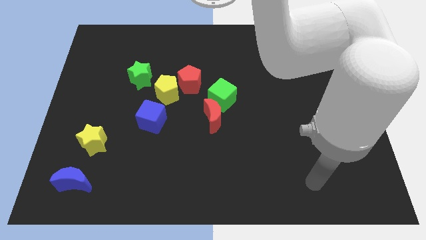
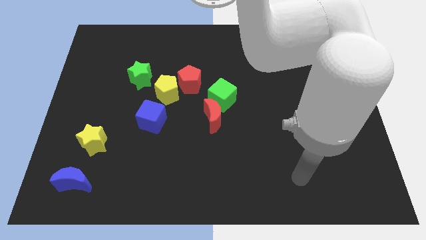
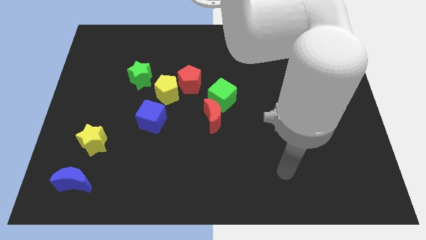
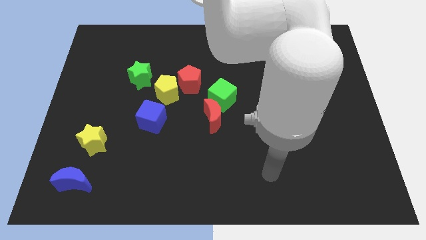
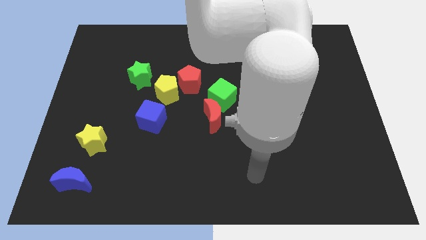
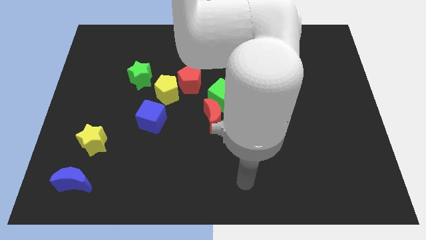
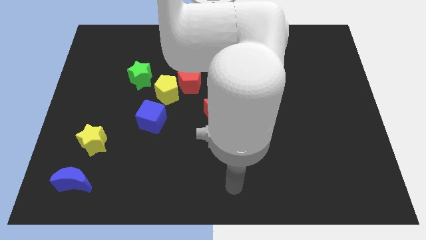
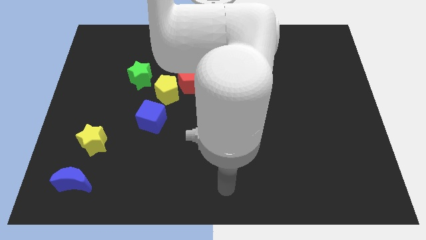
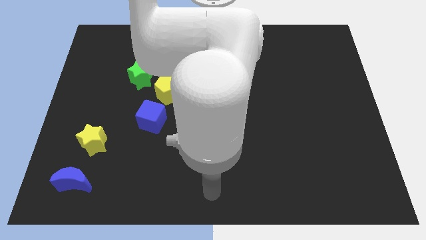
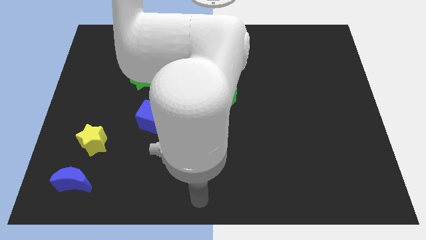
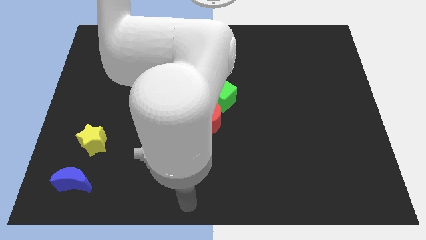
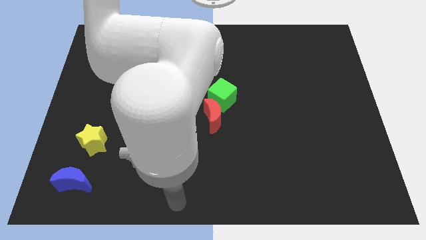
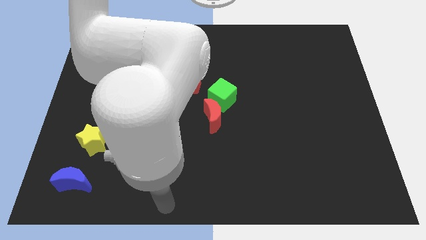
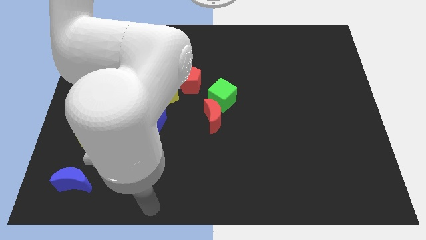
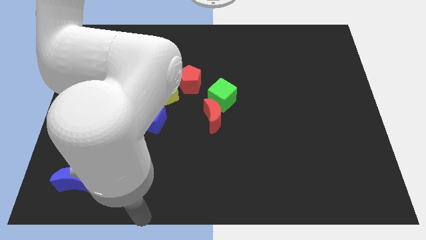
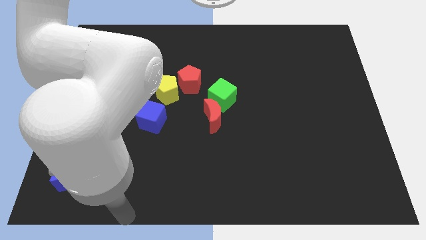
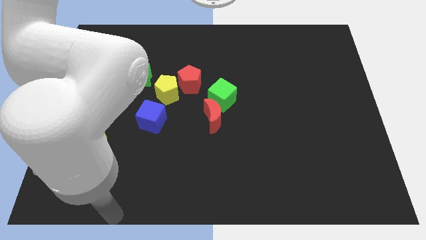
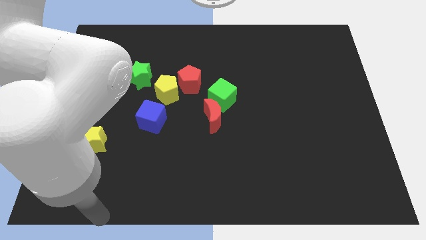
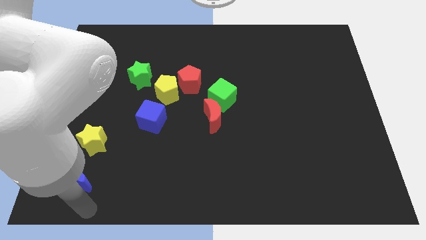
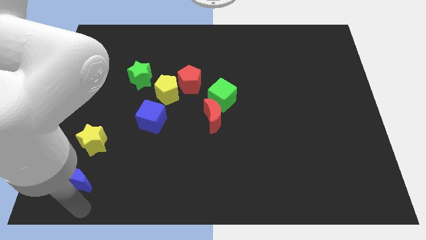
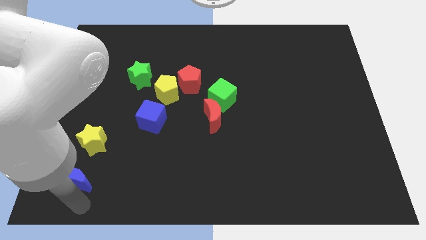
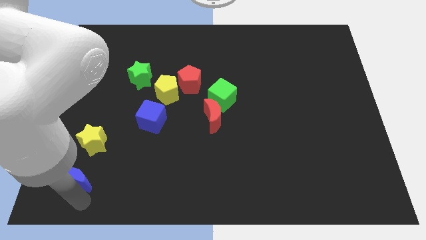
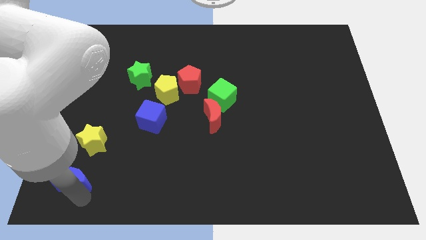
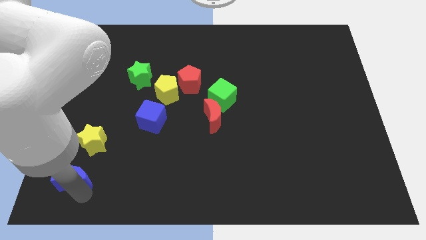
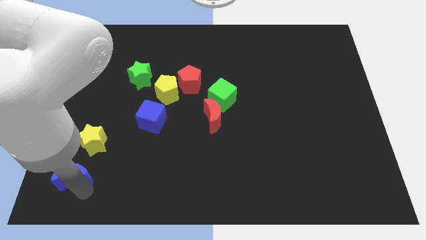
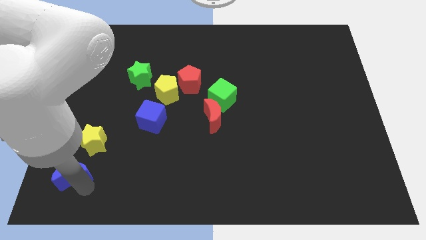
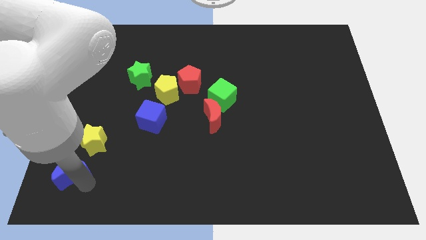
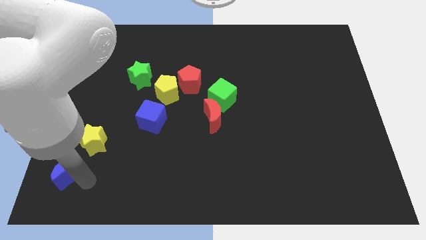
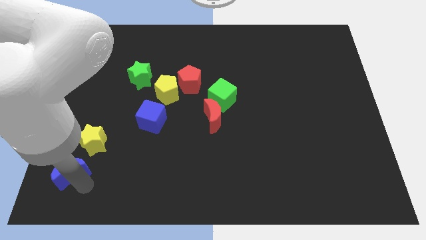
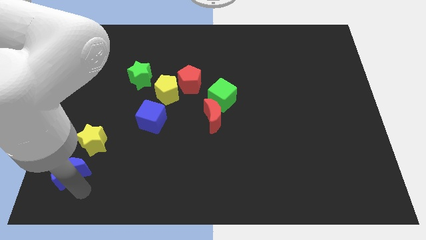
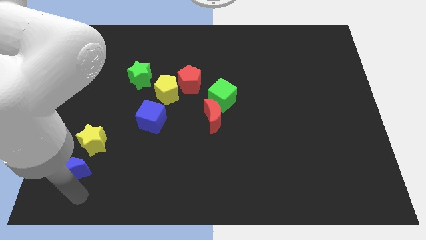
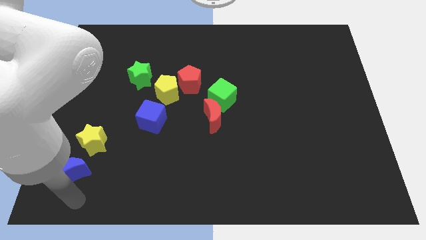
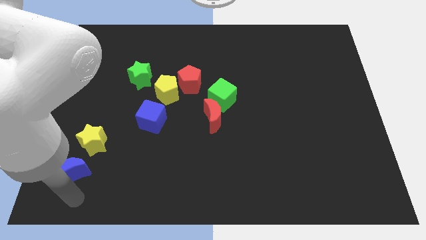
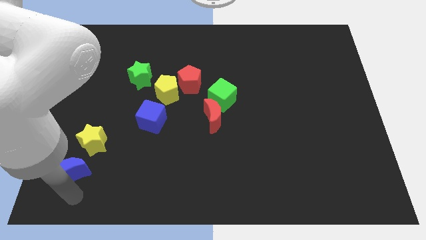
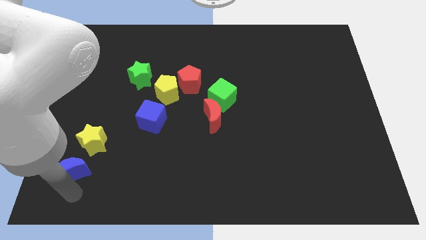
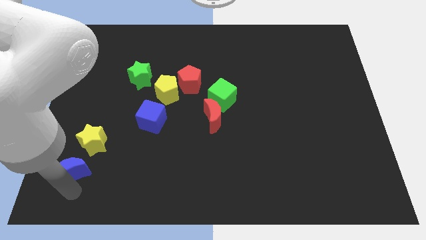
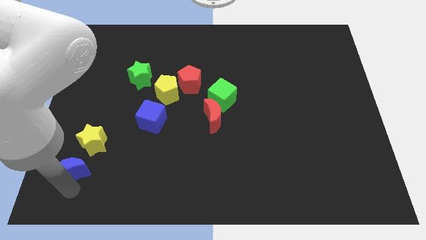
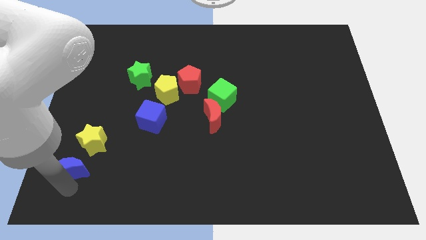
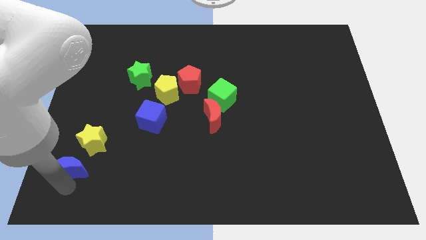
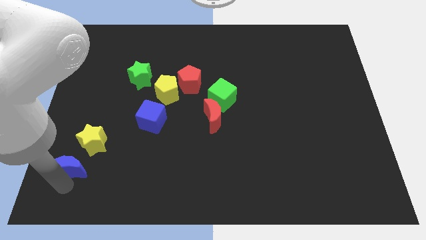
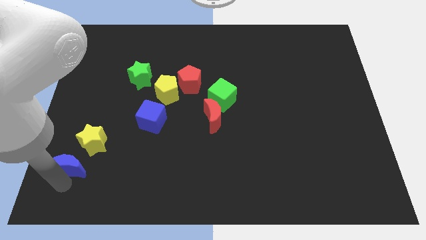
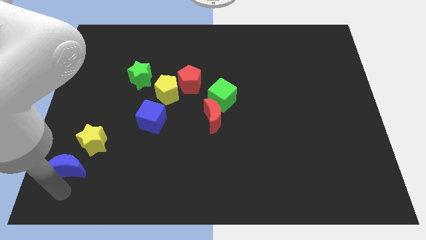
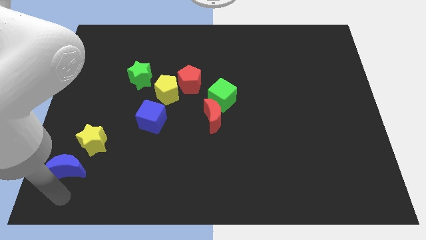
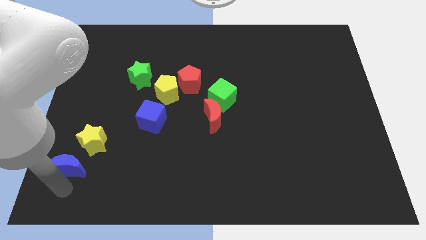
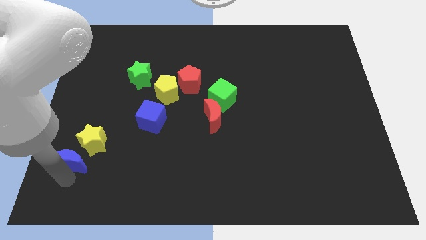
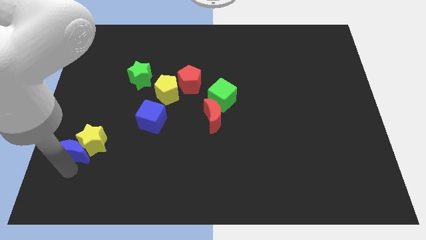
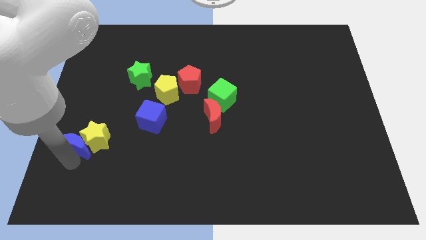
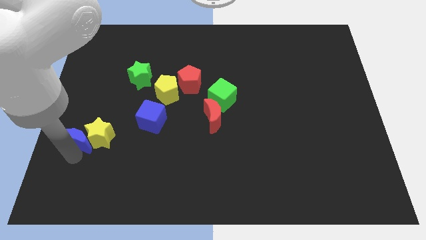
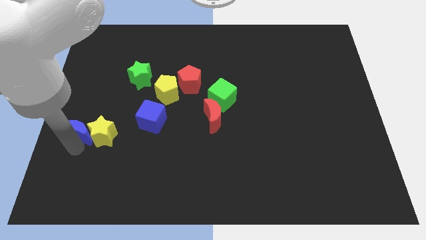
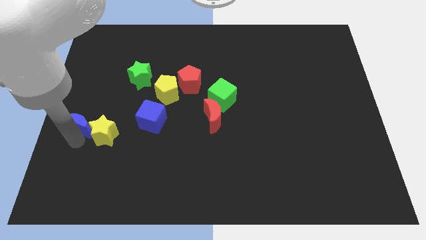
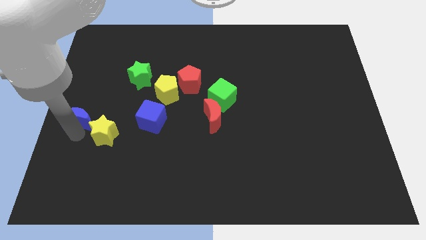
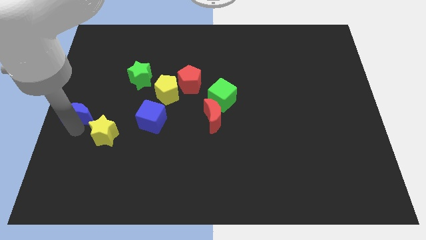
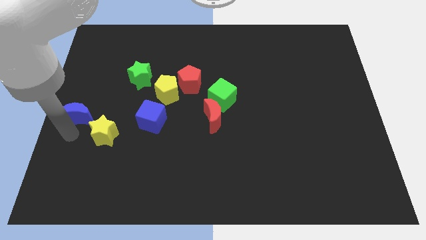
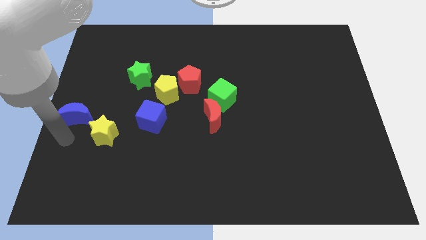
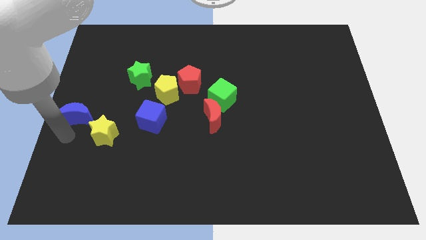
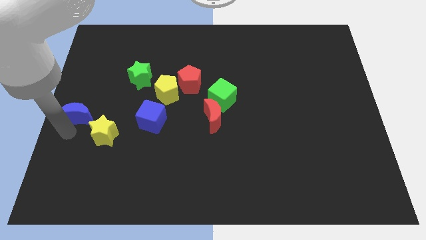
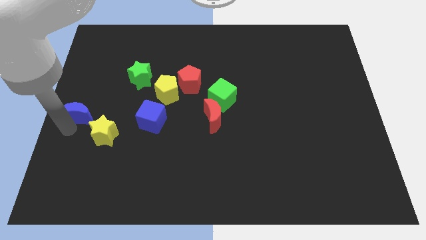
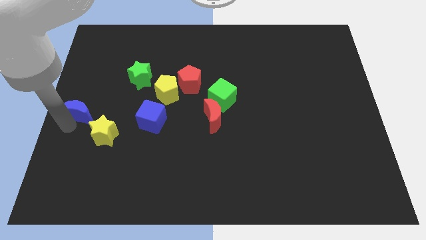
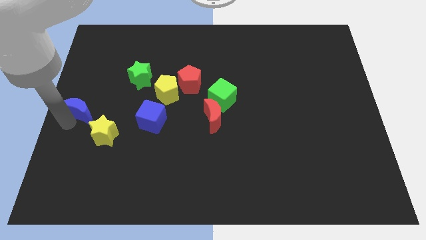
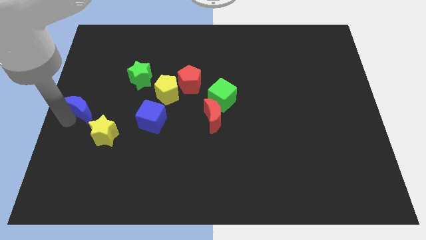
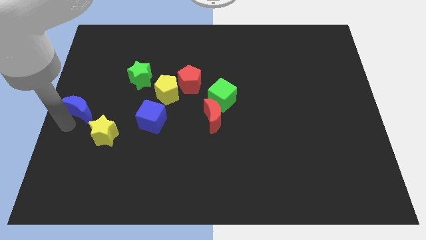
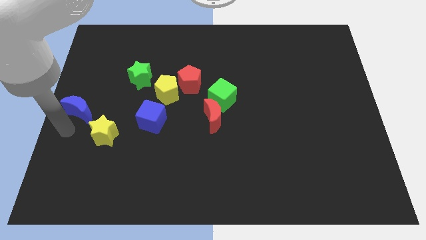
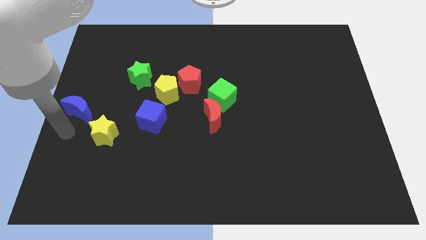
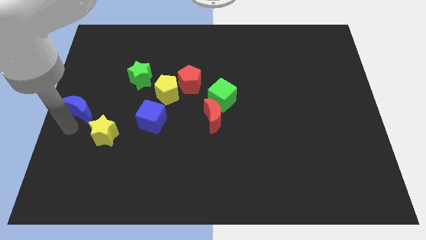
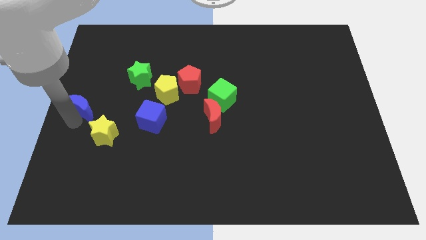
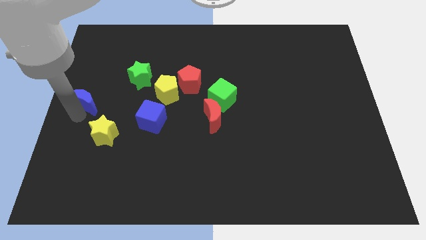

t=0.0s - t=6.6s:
slide the blue moon upwards

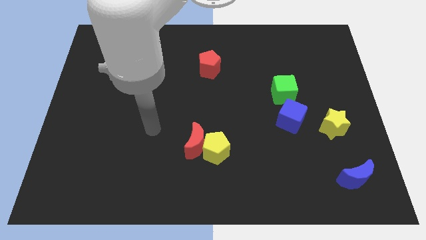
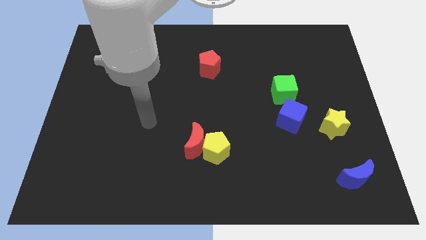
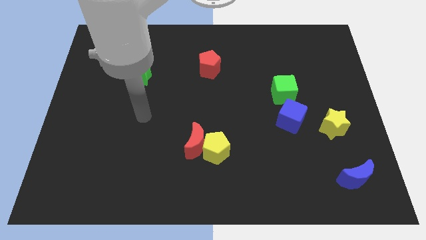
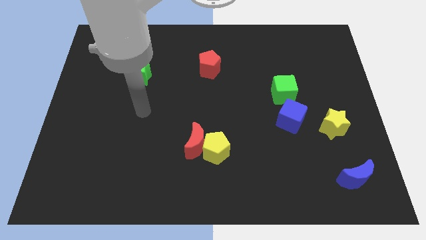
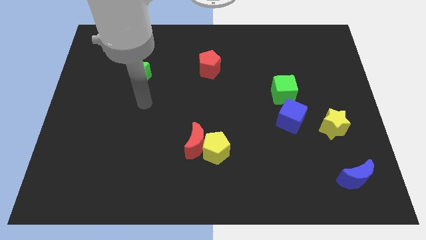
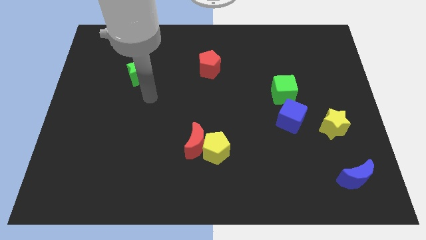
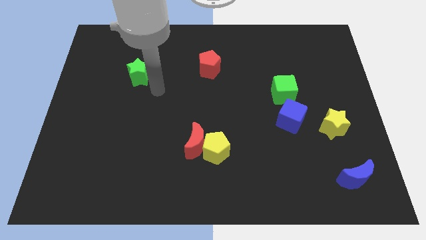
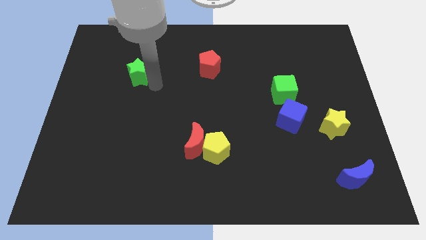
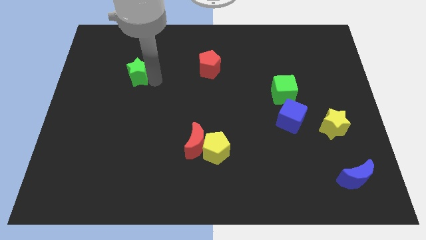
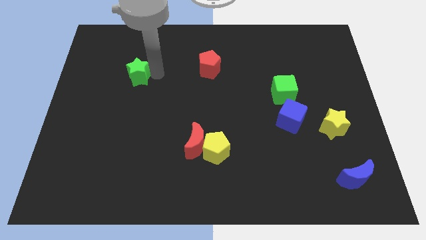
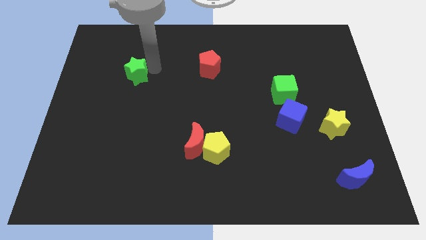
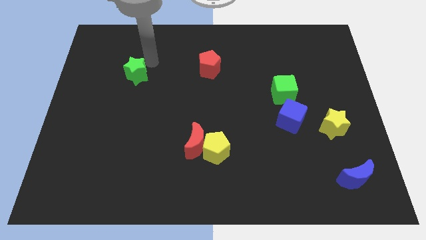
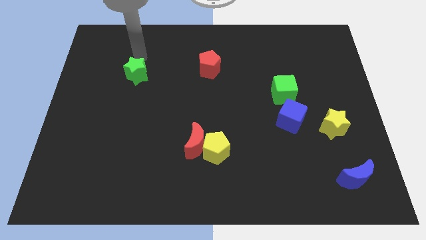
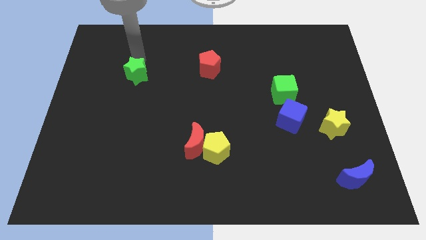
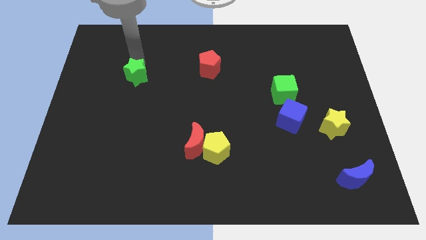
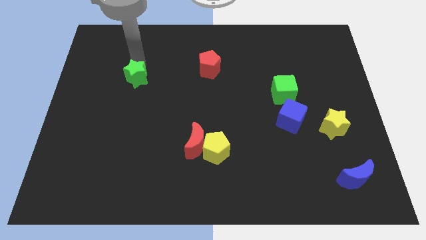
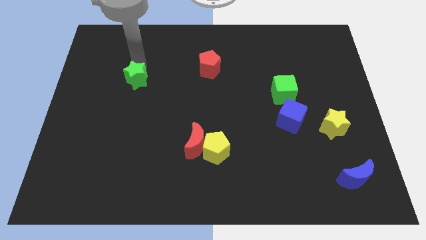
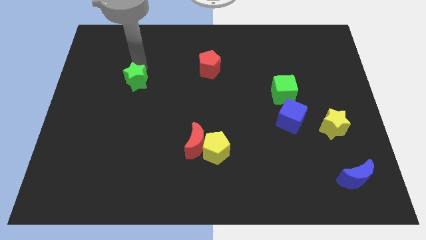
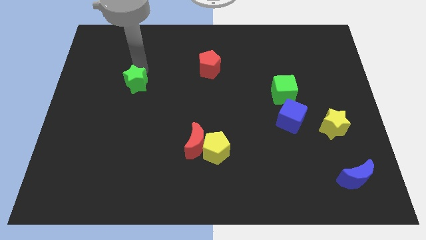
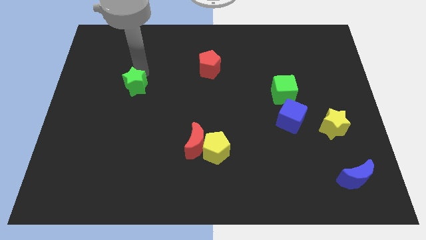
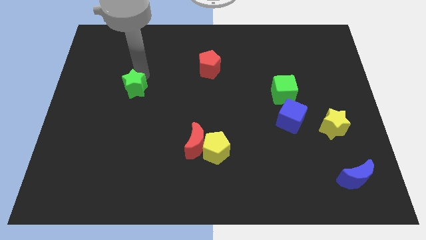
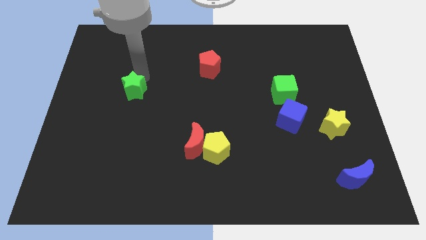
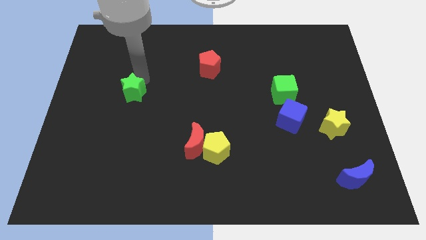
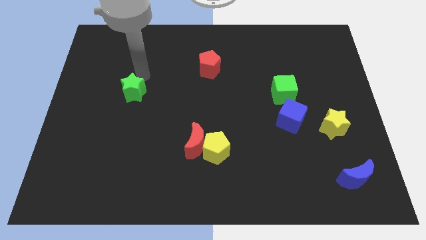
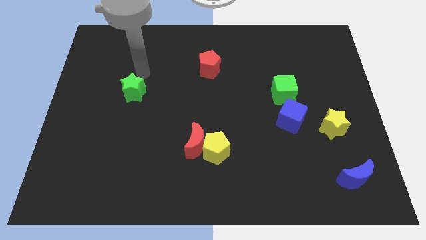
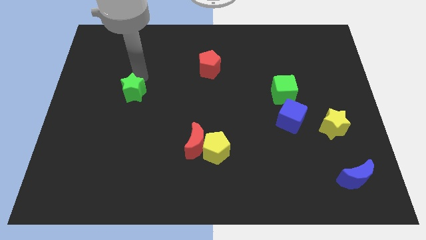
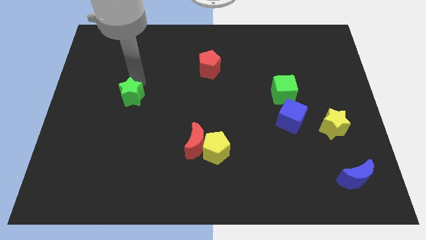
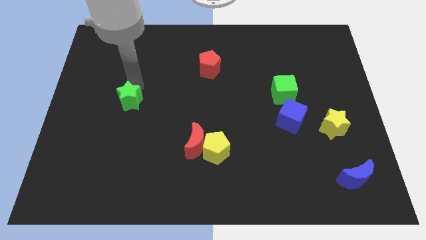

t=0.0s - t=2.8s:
slightly slide the green star downwards
